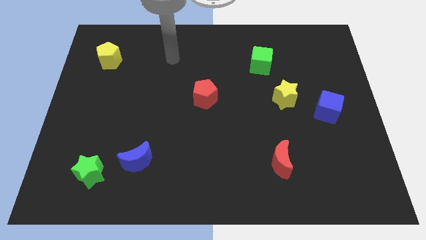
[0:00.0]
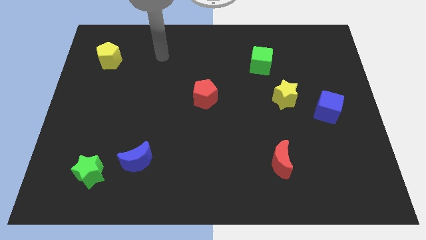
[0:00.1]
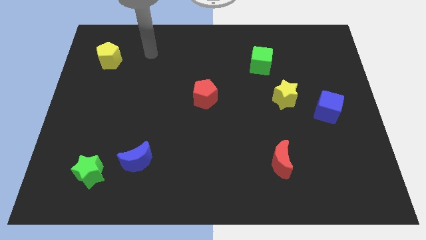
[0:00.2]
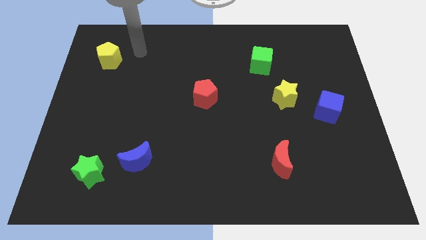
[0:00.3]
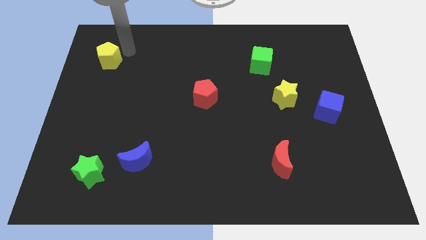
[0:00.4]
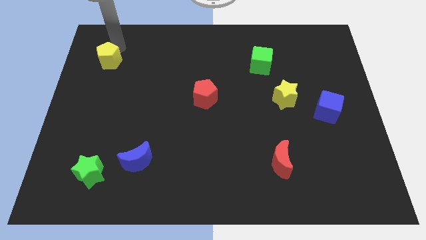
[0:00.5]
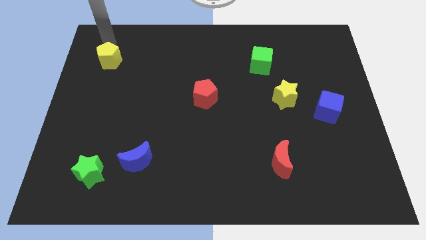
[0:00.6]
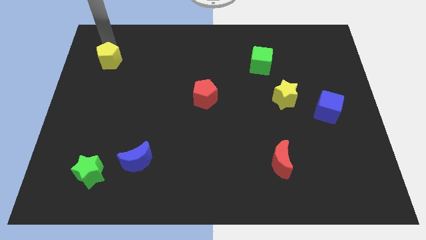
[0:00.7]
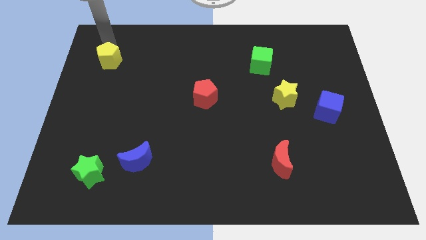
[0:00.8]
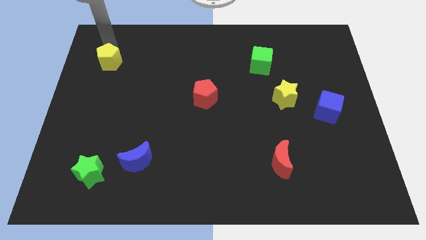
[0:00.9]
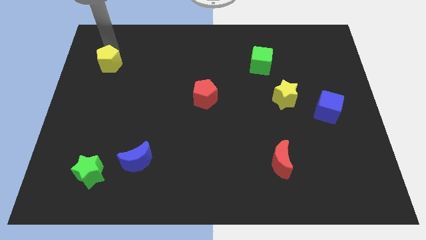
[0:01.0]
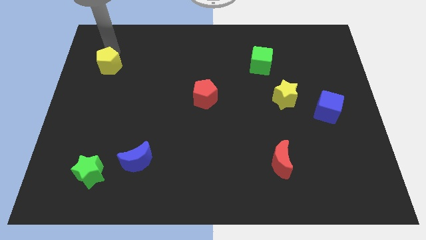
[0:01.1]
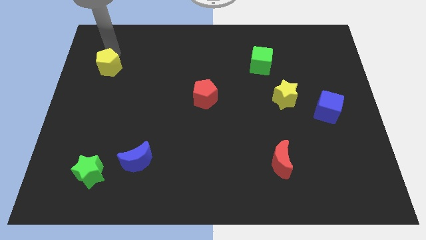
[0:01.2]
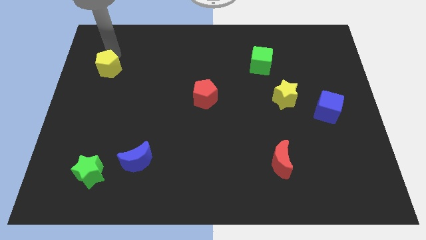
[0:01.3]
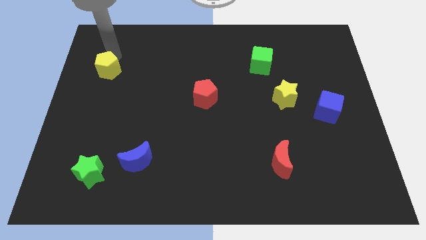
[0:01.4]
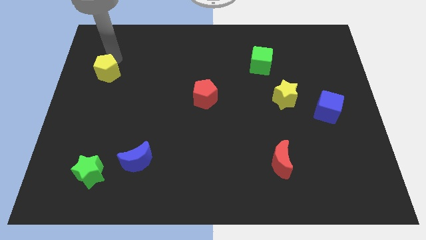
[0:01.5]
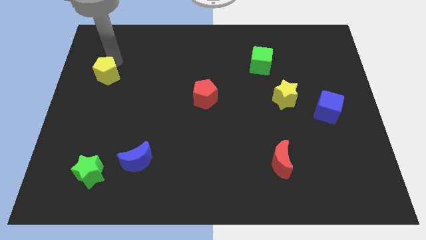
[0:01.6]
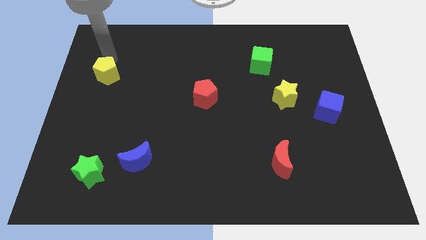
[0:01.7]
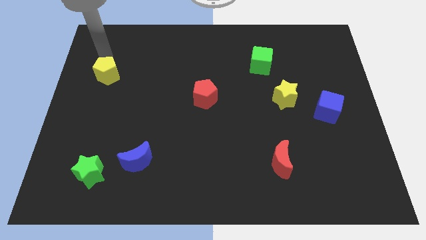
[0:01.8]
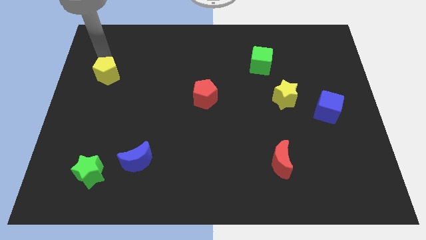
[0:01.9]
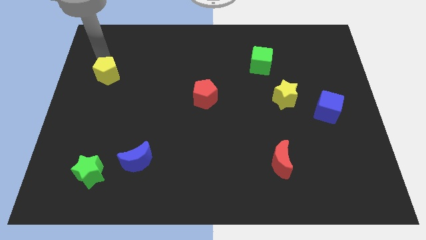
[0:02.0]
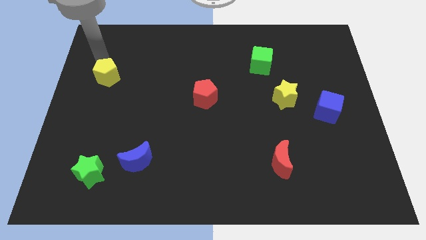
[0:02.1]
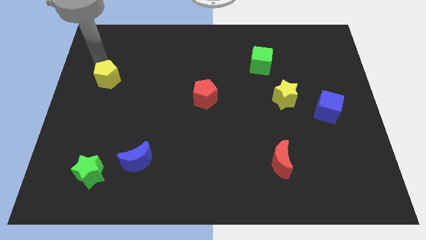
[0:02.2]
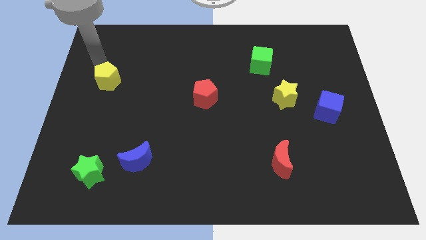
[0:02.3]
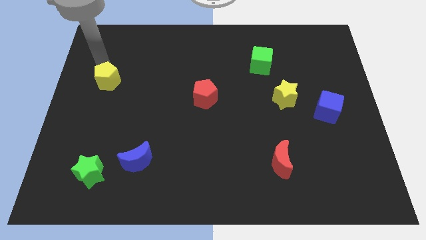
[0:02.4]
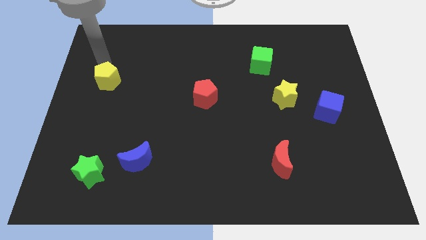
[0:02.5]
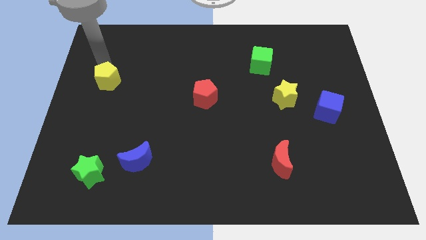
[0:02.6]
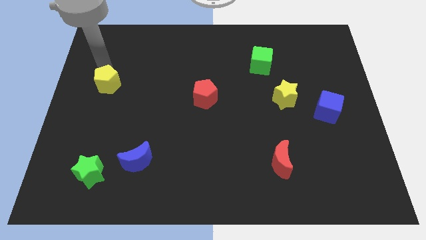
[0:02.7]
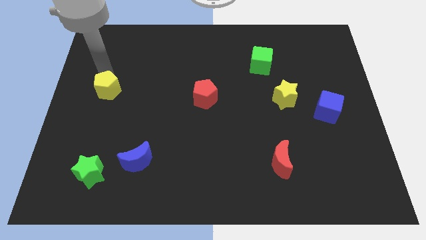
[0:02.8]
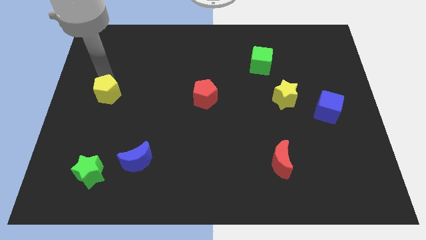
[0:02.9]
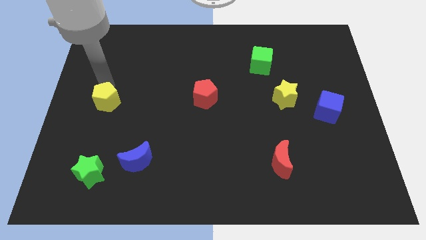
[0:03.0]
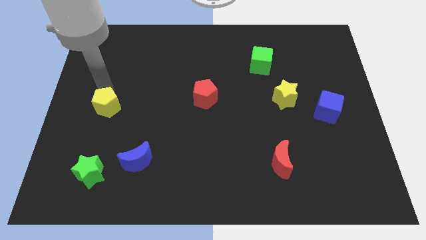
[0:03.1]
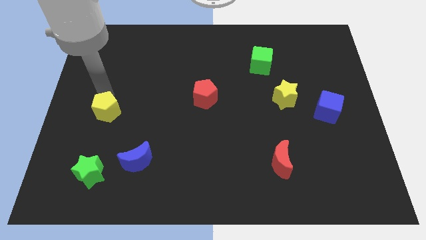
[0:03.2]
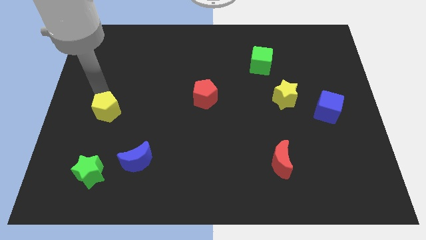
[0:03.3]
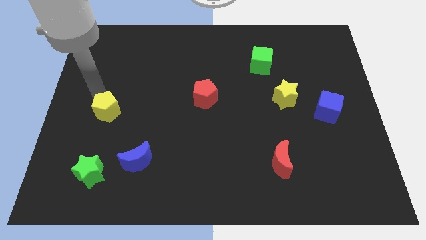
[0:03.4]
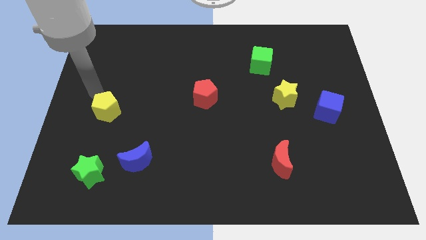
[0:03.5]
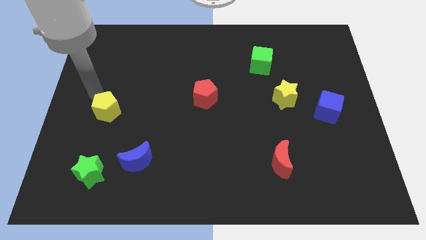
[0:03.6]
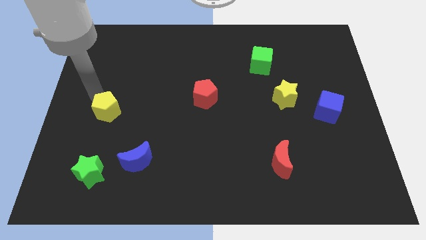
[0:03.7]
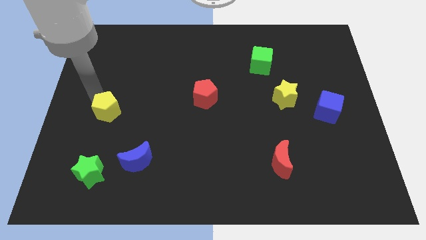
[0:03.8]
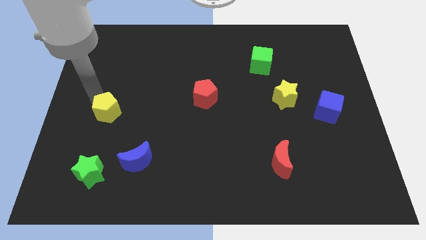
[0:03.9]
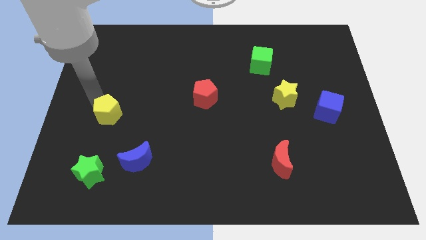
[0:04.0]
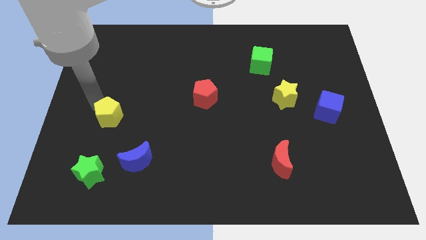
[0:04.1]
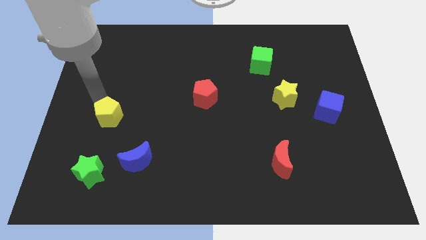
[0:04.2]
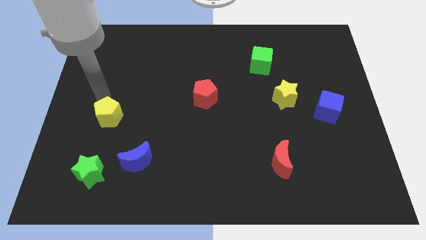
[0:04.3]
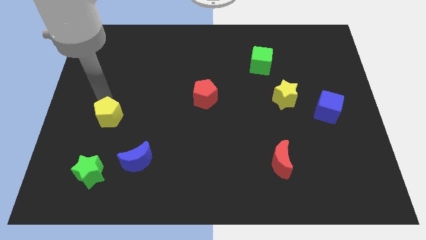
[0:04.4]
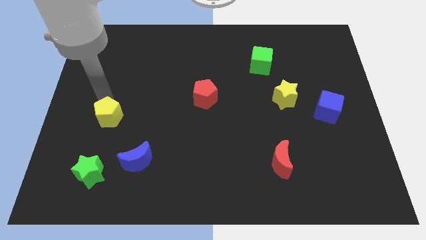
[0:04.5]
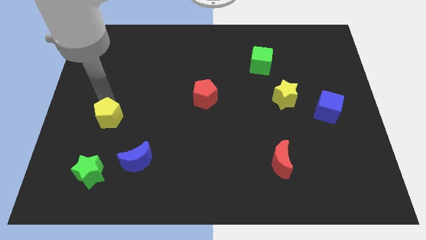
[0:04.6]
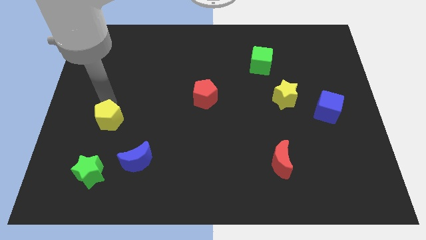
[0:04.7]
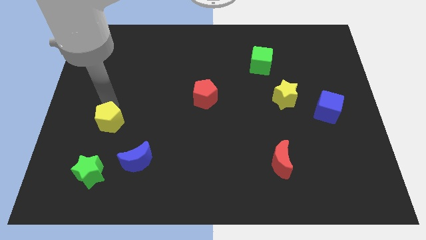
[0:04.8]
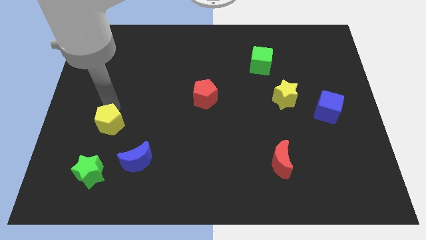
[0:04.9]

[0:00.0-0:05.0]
move the yellow pentagon diagonally up and to the left of the blue moon

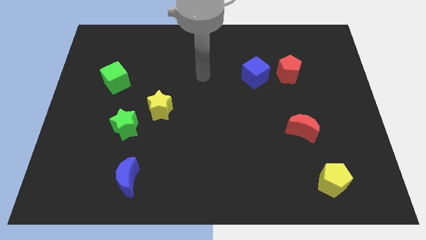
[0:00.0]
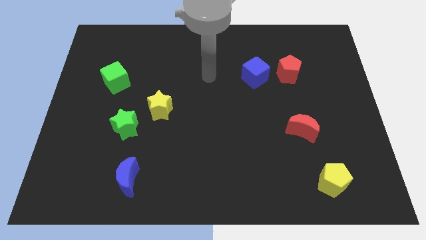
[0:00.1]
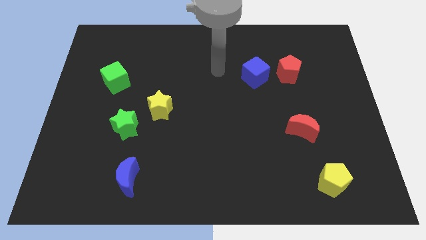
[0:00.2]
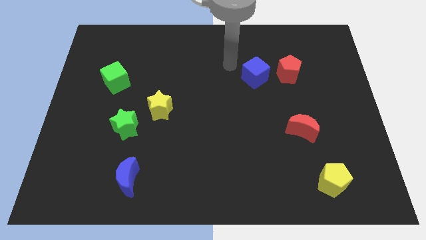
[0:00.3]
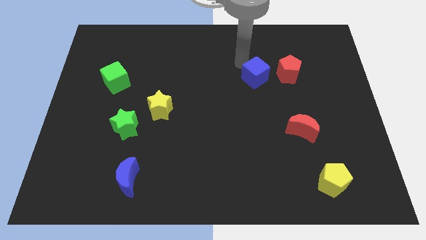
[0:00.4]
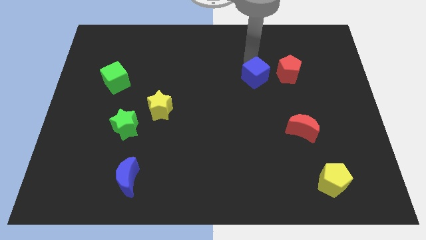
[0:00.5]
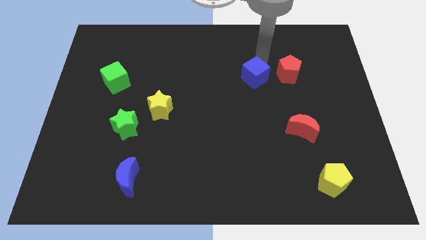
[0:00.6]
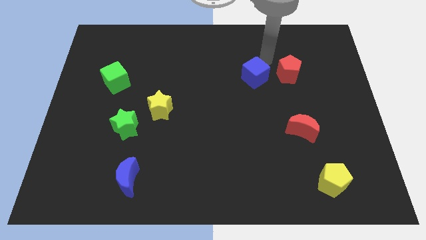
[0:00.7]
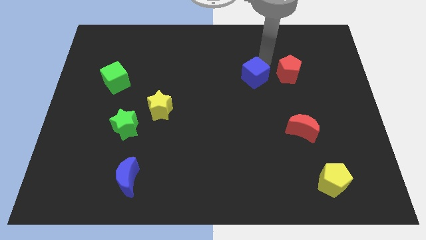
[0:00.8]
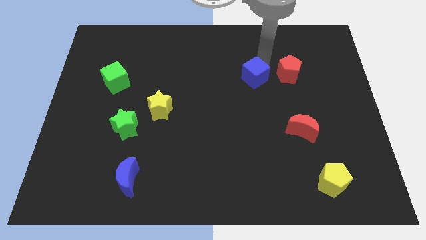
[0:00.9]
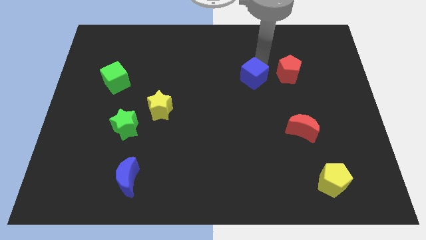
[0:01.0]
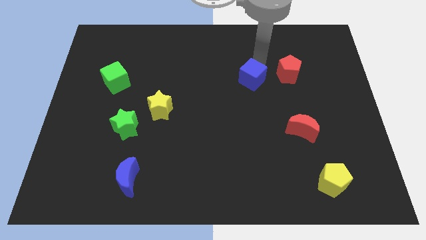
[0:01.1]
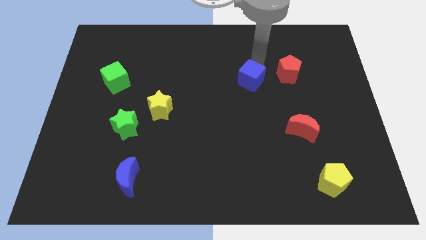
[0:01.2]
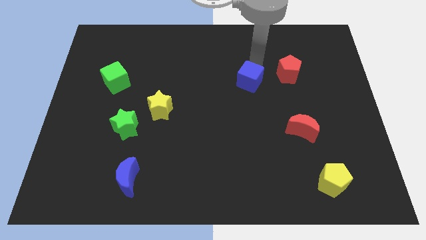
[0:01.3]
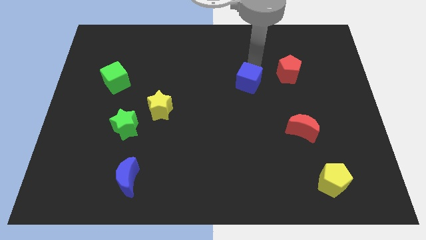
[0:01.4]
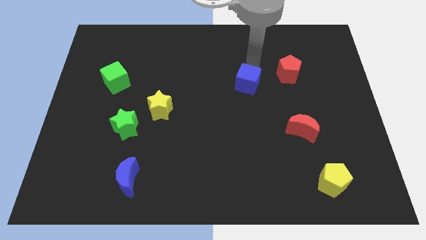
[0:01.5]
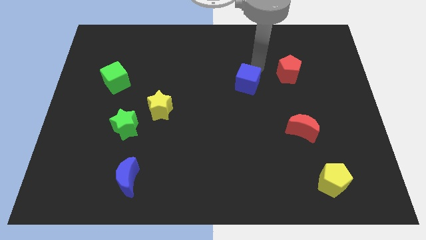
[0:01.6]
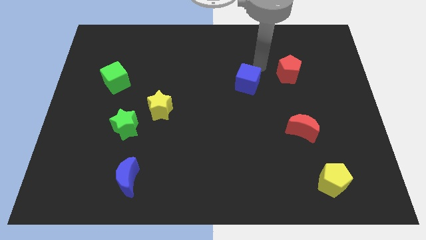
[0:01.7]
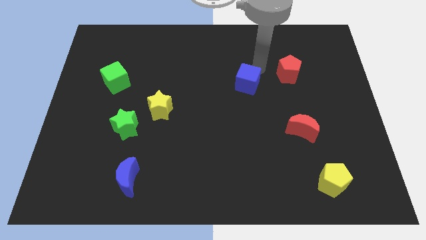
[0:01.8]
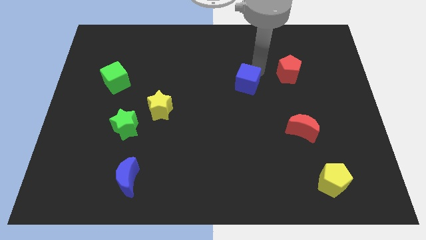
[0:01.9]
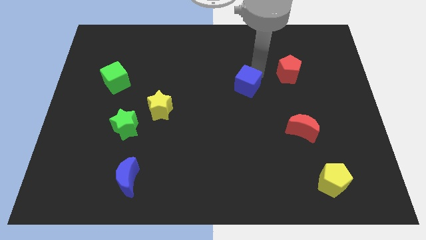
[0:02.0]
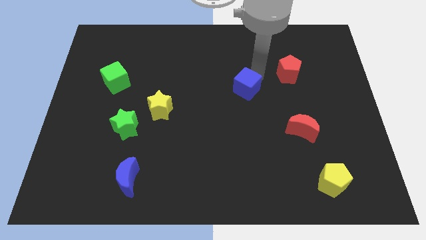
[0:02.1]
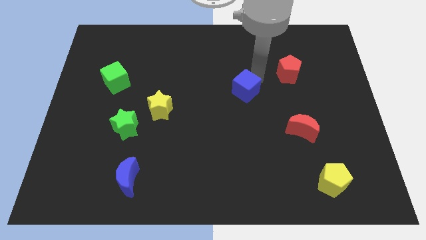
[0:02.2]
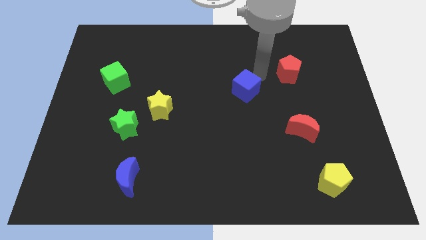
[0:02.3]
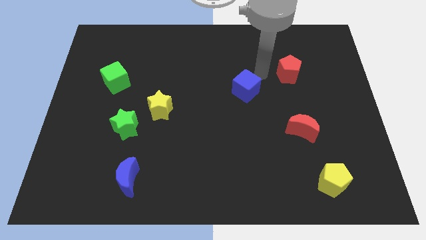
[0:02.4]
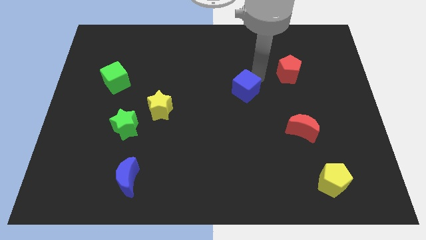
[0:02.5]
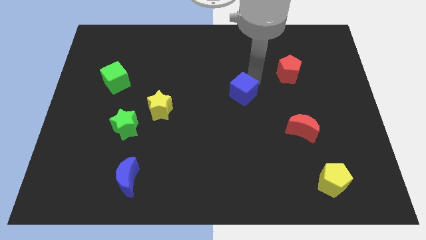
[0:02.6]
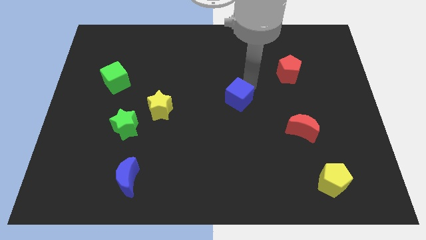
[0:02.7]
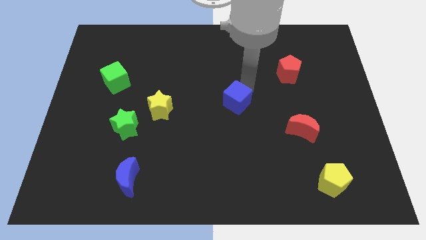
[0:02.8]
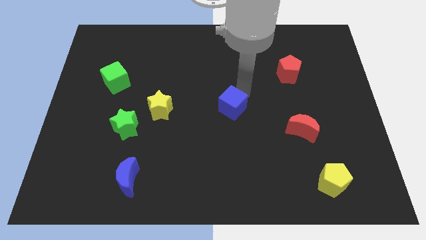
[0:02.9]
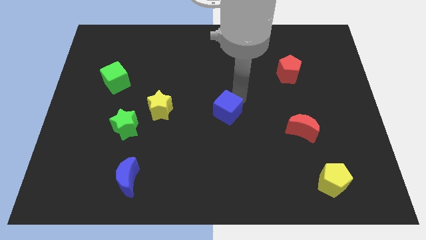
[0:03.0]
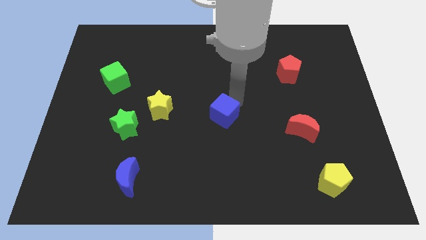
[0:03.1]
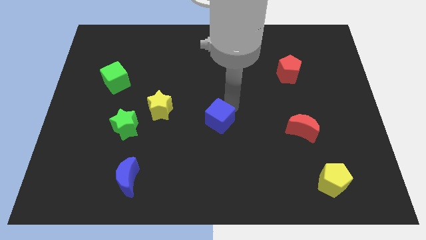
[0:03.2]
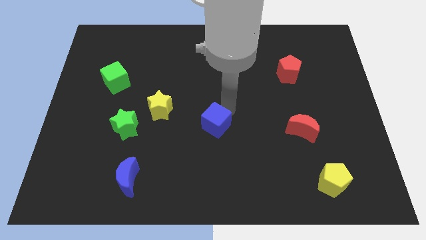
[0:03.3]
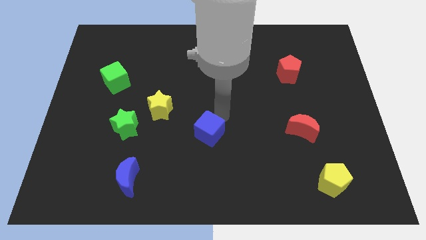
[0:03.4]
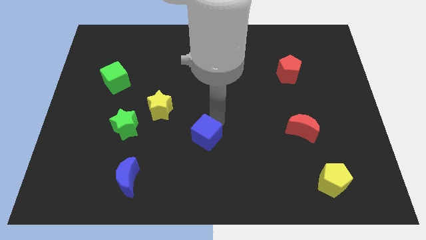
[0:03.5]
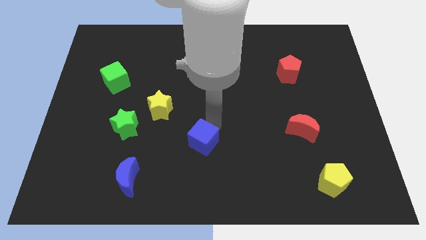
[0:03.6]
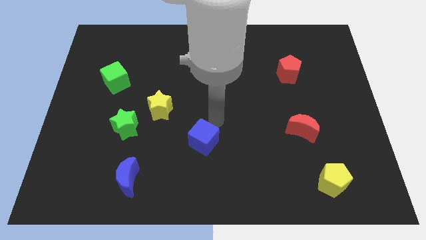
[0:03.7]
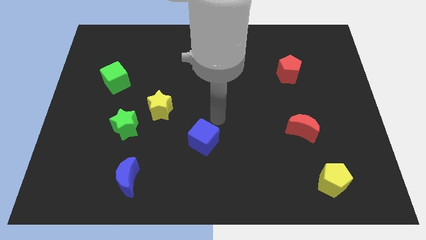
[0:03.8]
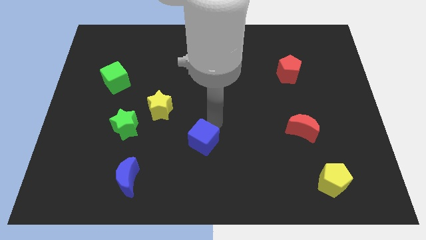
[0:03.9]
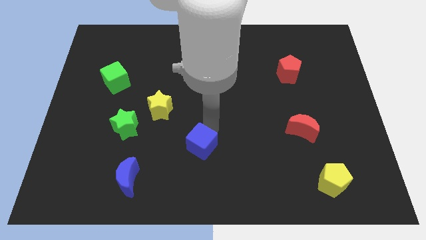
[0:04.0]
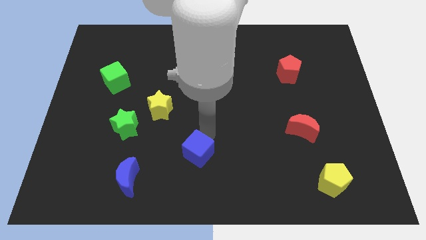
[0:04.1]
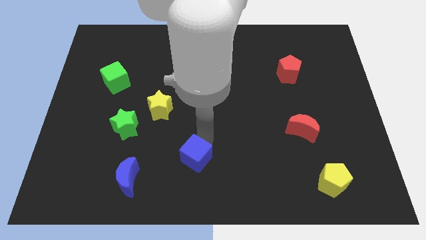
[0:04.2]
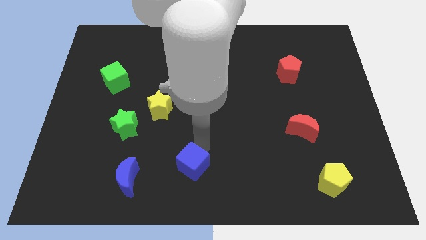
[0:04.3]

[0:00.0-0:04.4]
move the blue cube just right of the blue moon
